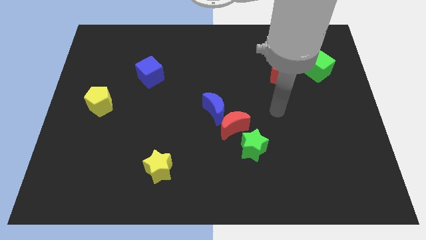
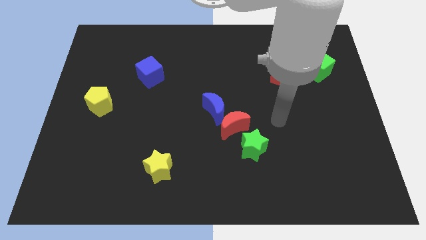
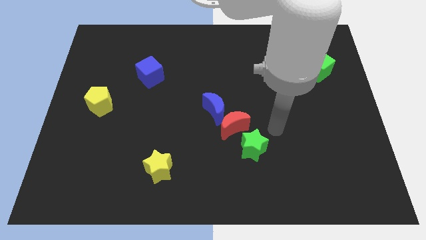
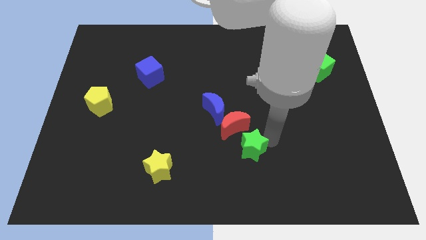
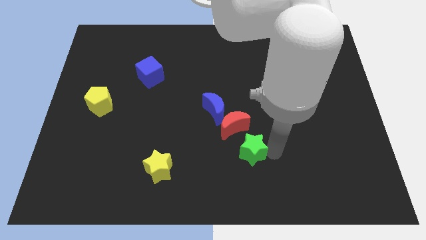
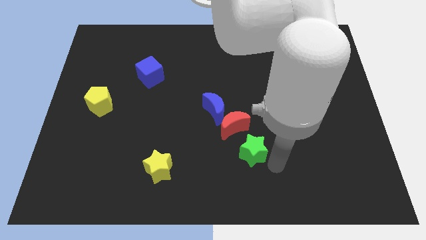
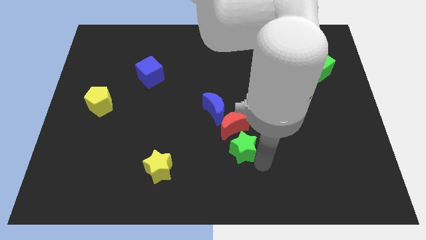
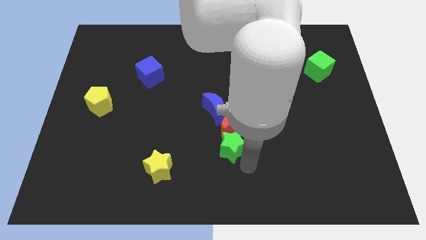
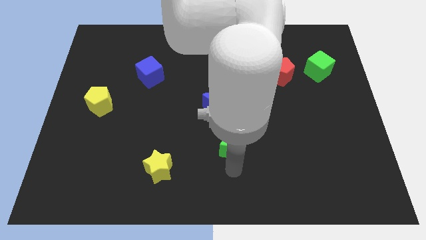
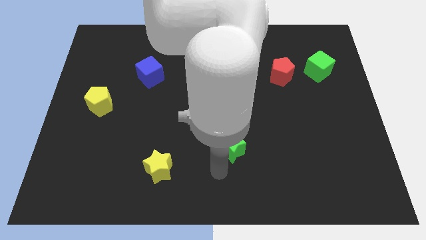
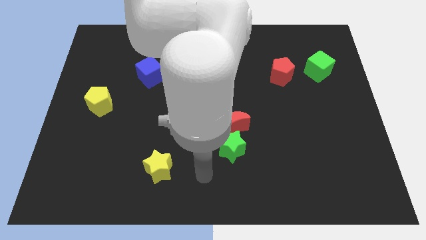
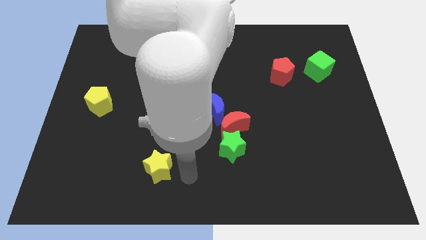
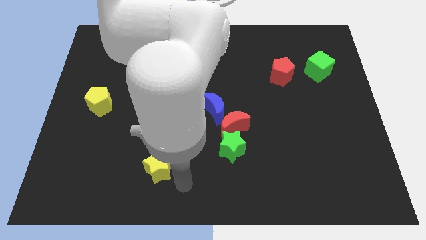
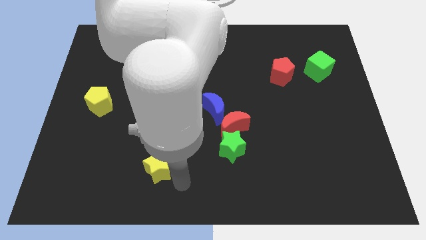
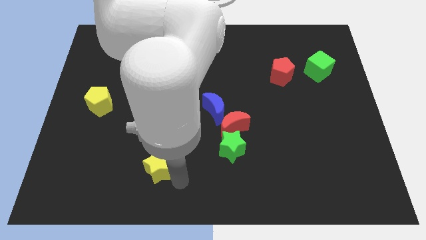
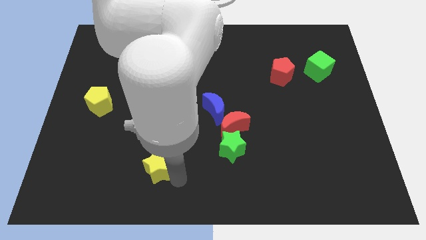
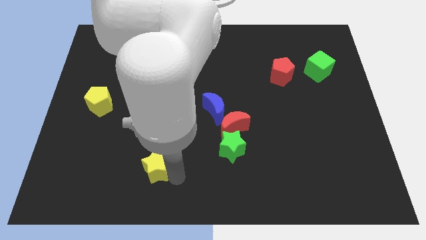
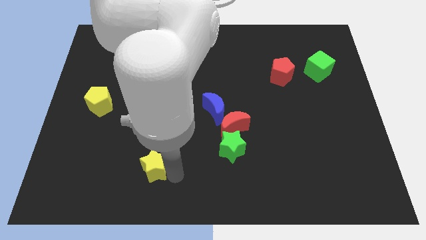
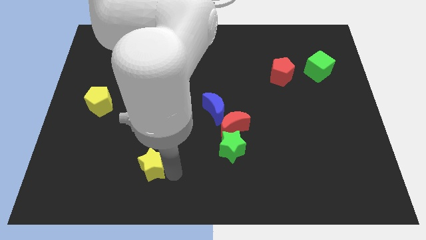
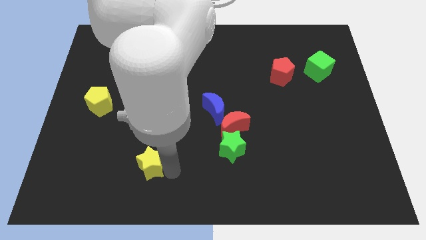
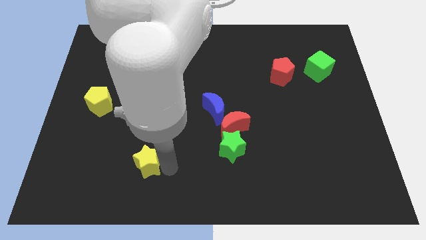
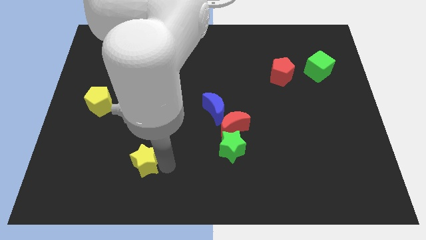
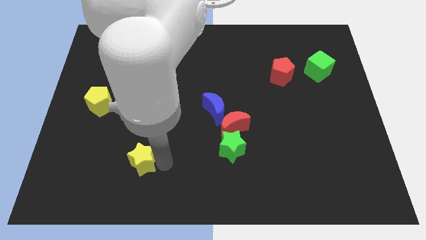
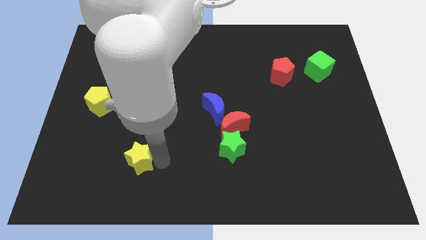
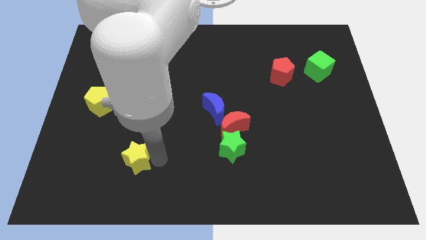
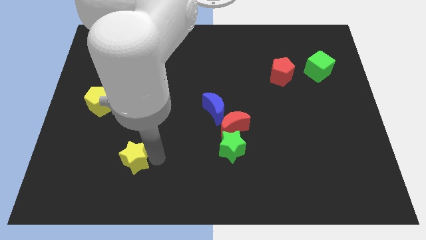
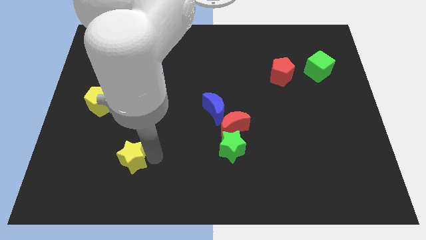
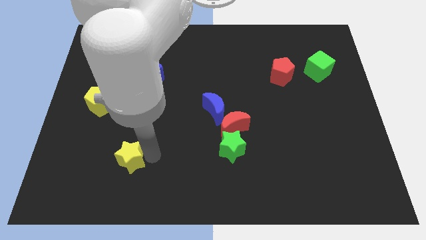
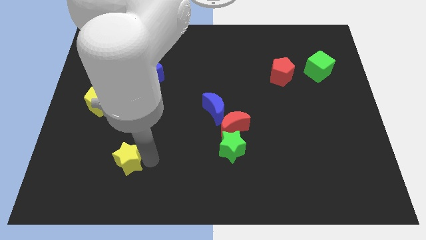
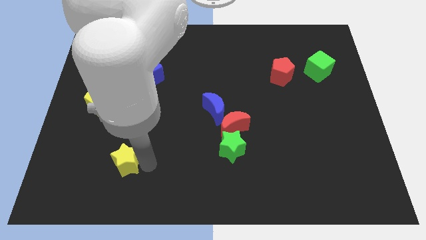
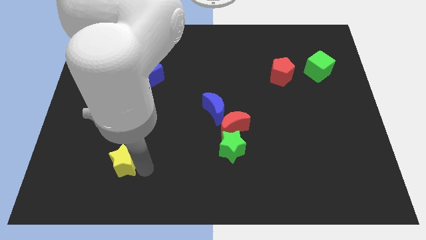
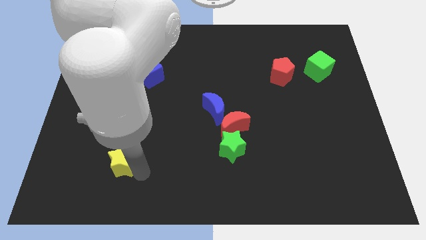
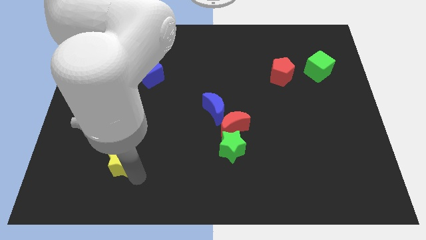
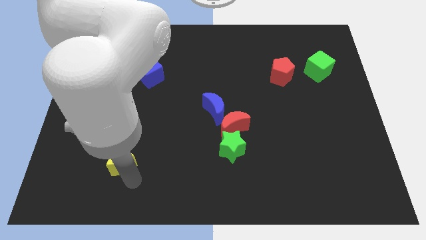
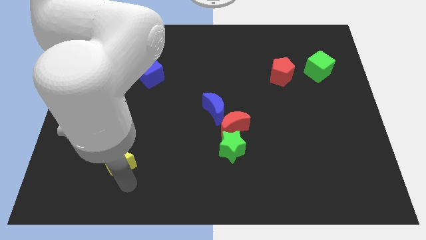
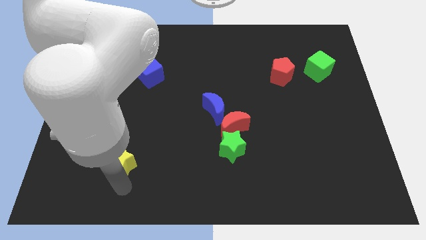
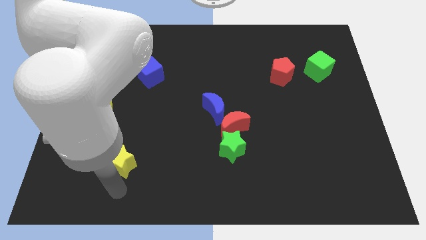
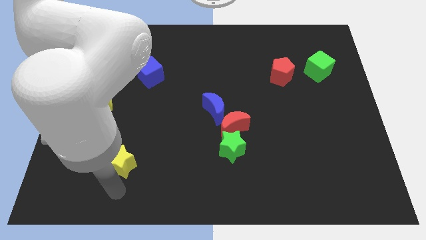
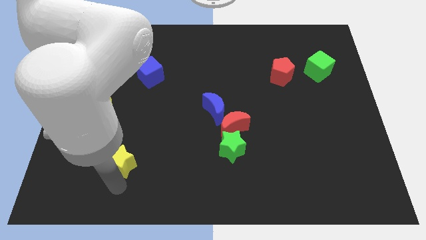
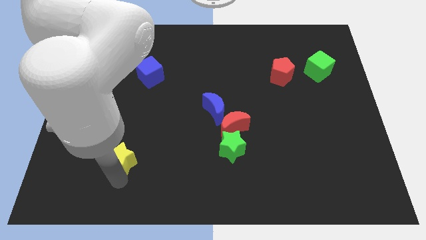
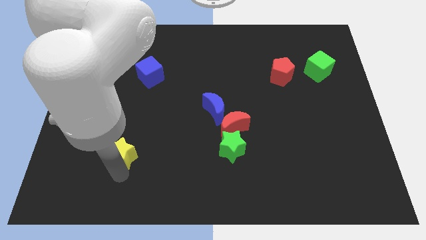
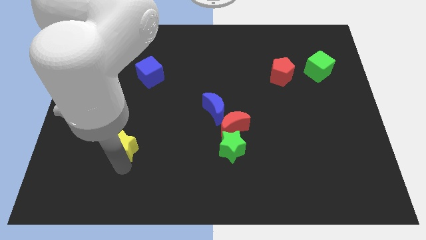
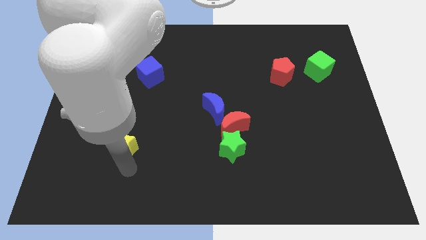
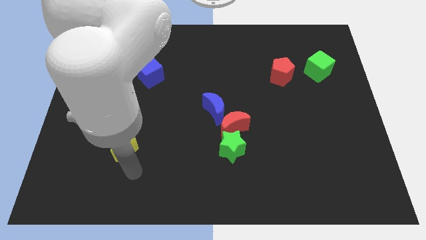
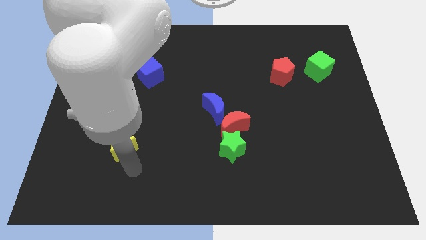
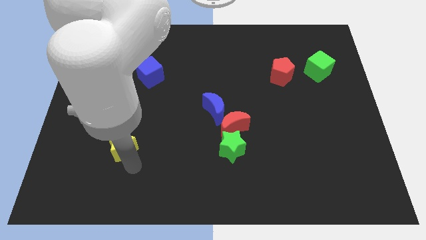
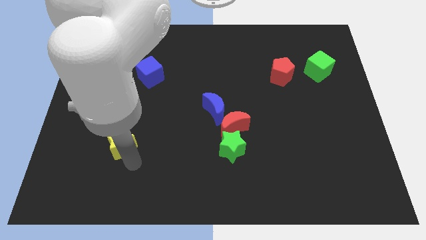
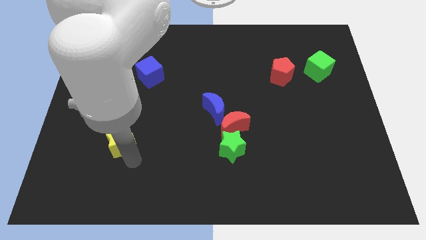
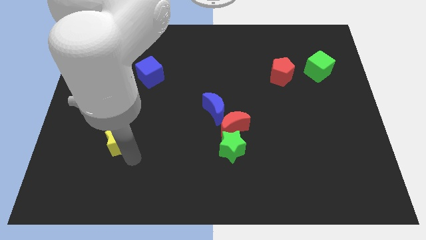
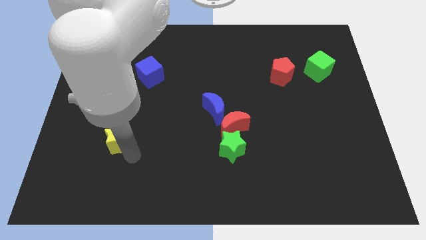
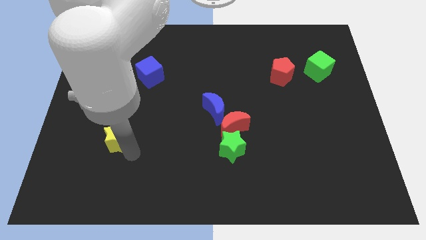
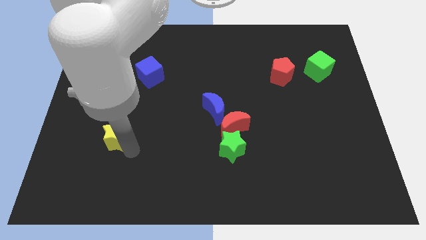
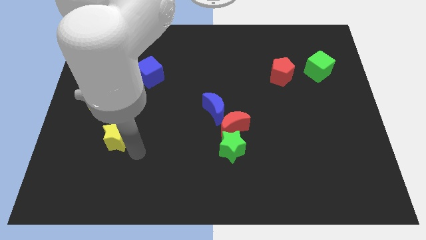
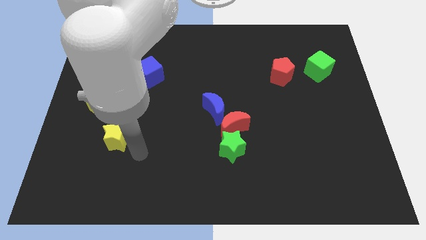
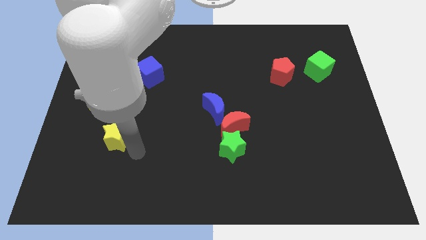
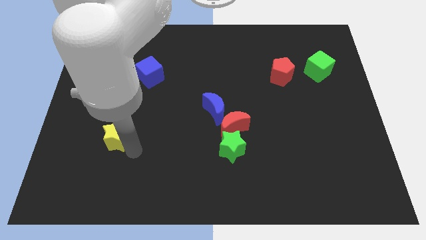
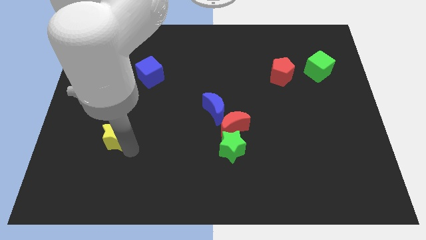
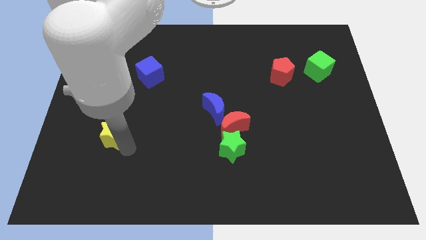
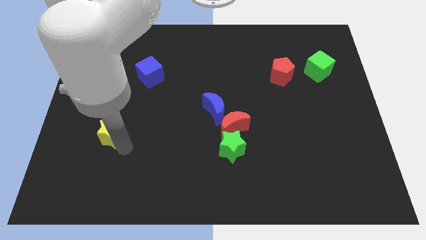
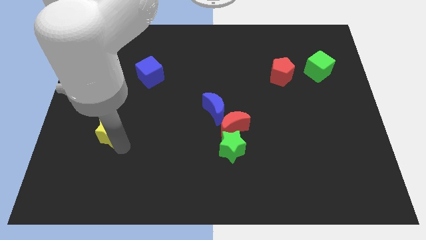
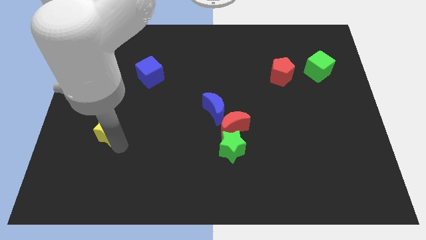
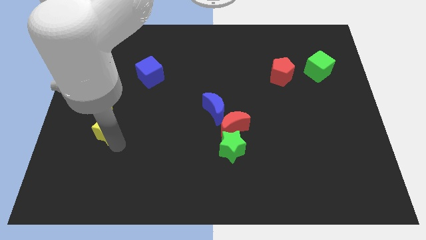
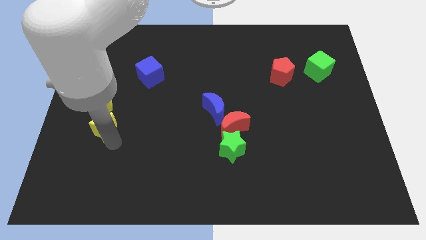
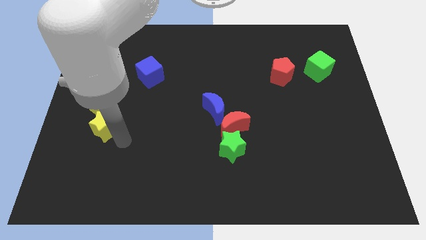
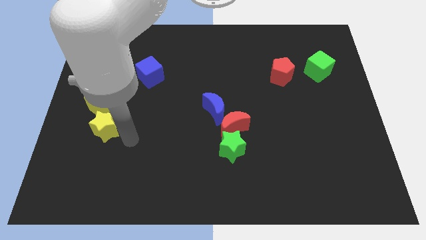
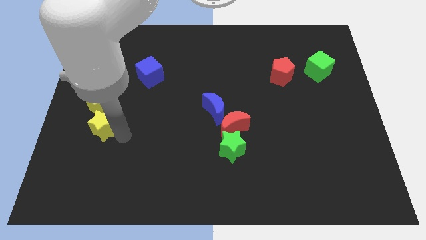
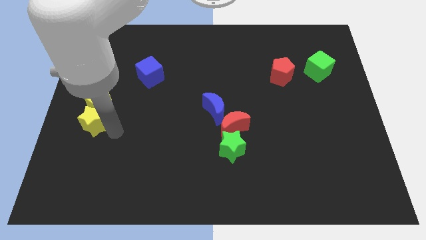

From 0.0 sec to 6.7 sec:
slide the yellow star to the left side
